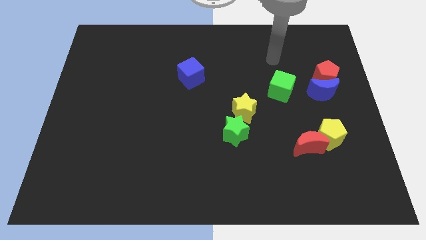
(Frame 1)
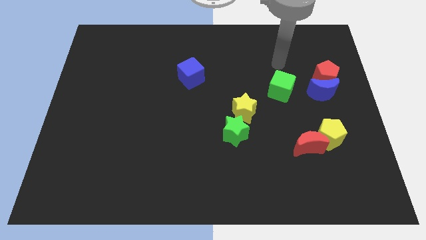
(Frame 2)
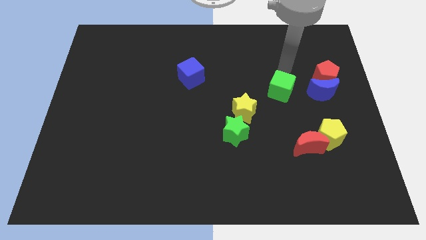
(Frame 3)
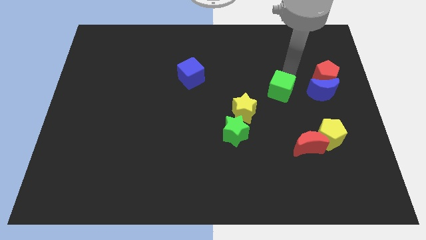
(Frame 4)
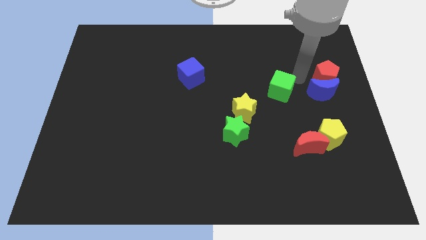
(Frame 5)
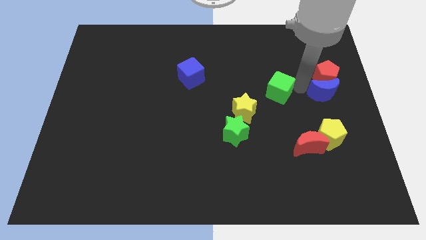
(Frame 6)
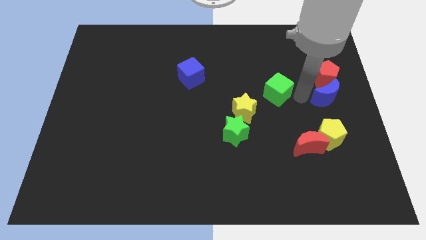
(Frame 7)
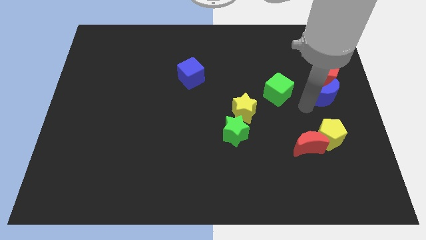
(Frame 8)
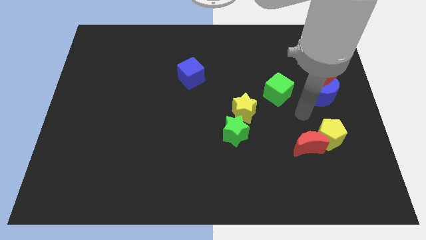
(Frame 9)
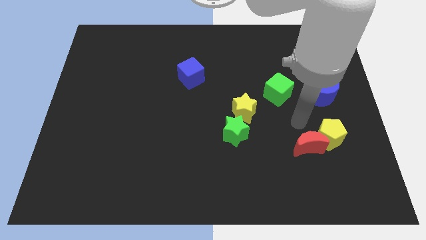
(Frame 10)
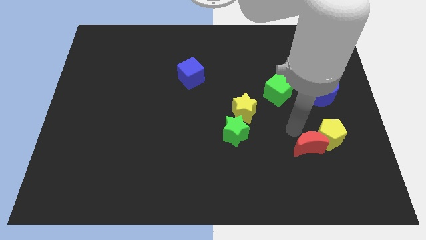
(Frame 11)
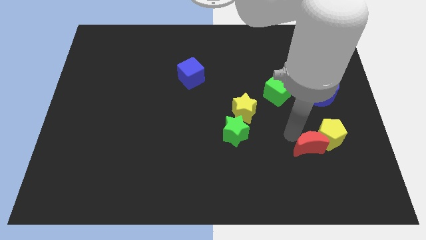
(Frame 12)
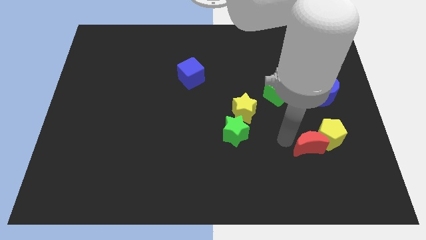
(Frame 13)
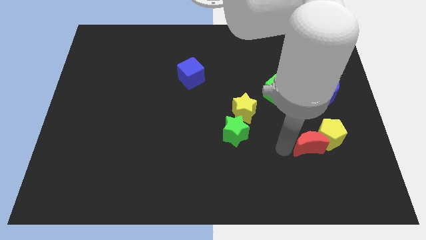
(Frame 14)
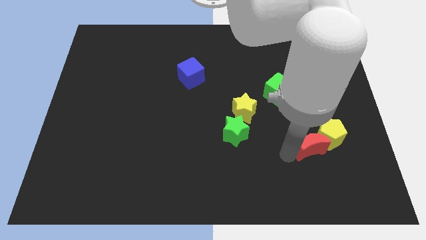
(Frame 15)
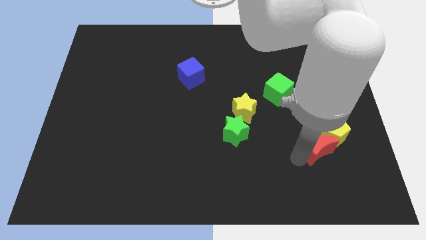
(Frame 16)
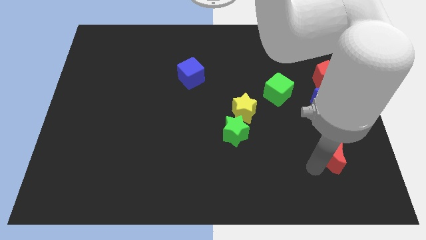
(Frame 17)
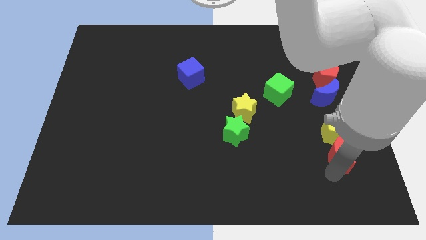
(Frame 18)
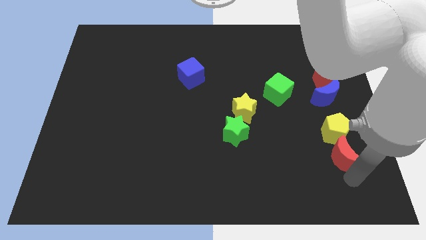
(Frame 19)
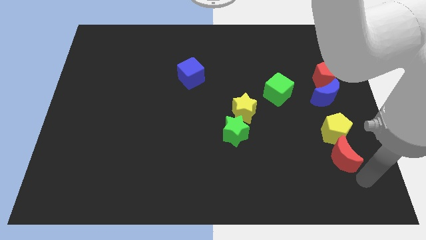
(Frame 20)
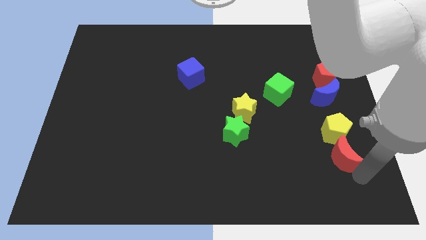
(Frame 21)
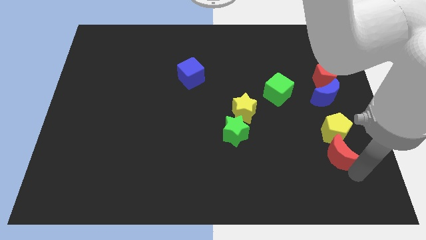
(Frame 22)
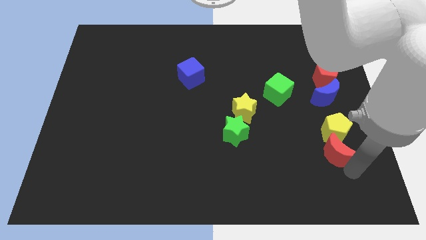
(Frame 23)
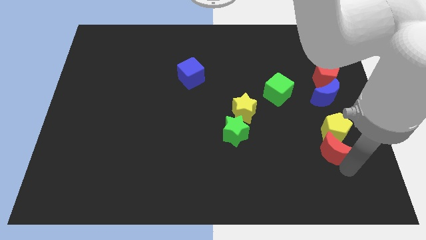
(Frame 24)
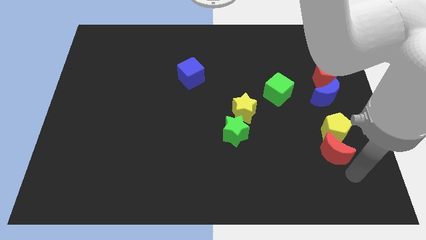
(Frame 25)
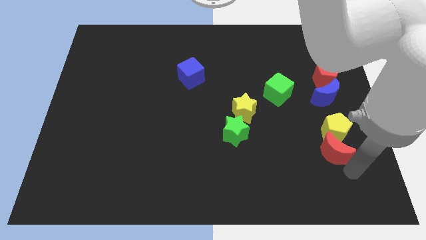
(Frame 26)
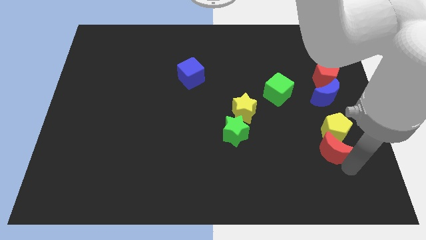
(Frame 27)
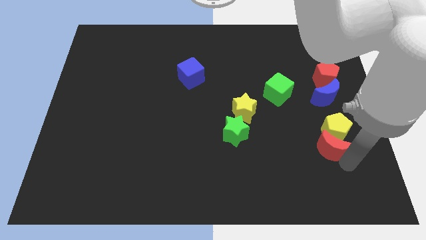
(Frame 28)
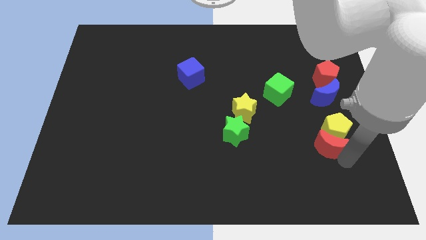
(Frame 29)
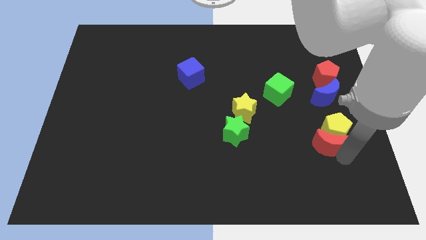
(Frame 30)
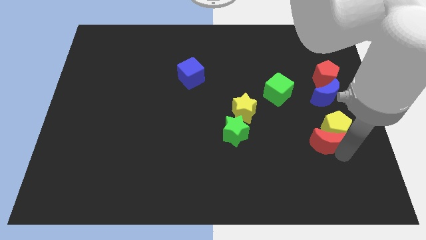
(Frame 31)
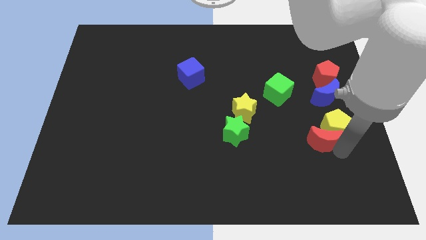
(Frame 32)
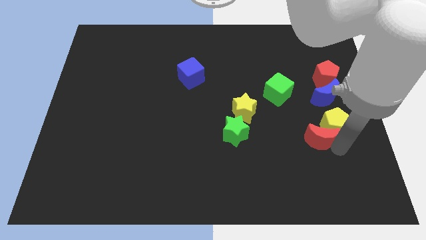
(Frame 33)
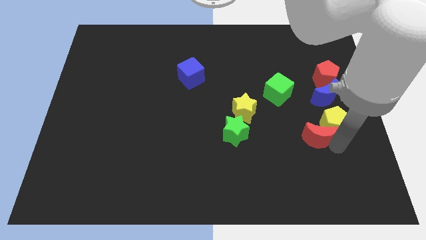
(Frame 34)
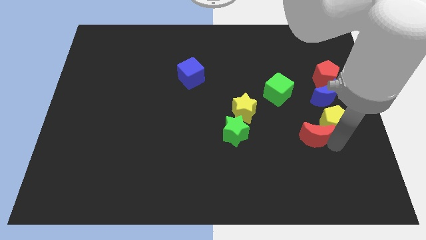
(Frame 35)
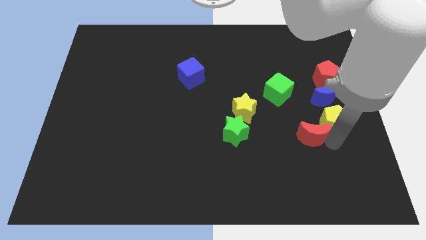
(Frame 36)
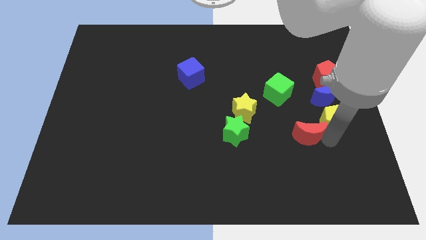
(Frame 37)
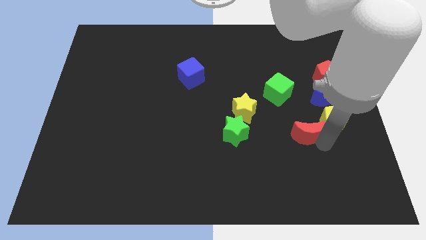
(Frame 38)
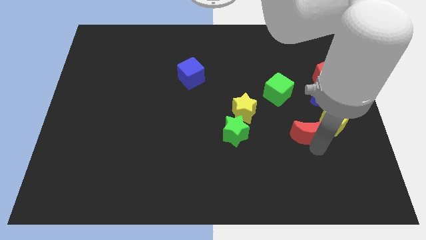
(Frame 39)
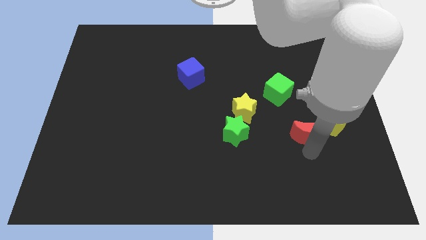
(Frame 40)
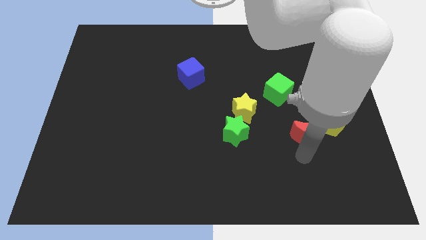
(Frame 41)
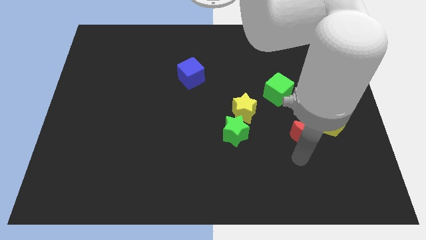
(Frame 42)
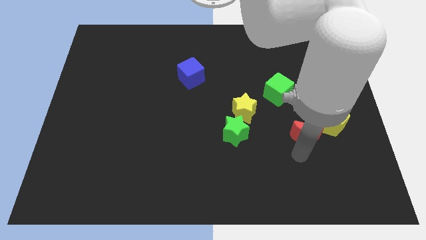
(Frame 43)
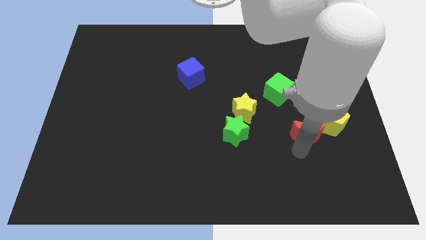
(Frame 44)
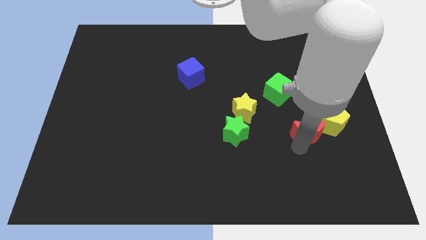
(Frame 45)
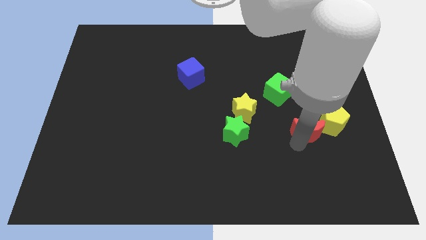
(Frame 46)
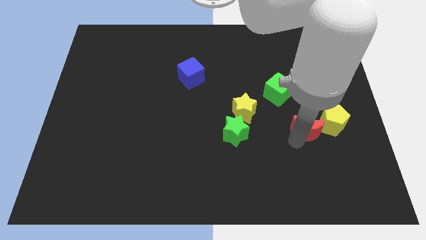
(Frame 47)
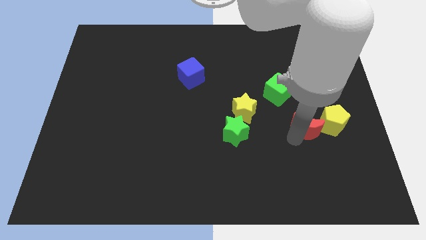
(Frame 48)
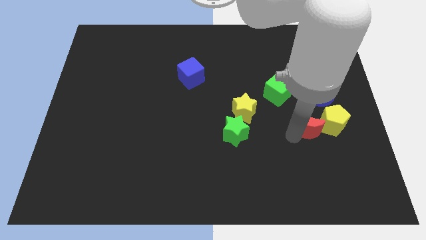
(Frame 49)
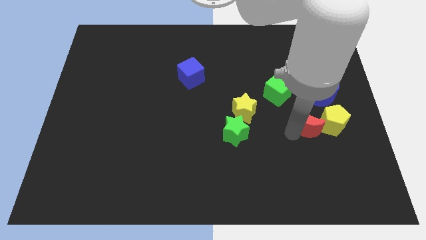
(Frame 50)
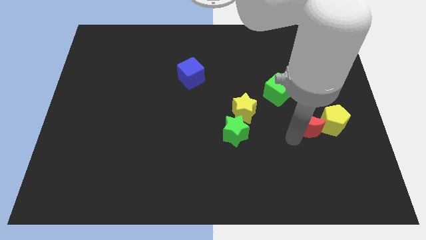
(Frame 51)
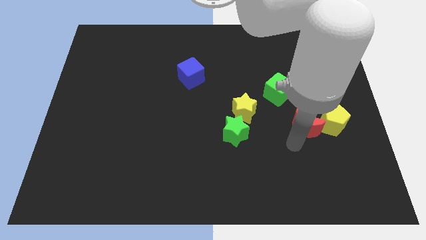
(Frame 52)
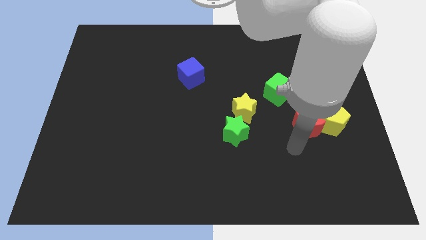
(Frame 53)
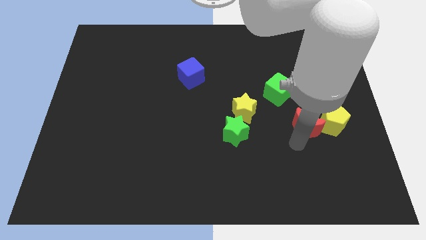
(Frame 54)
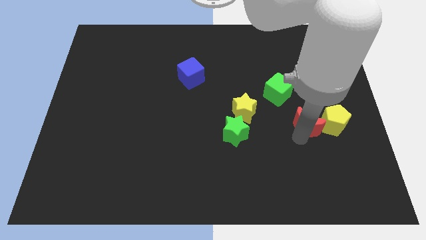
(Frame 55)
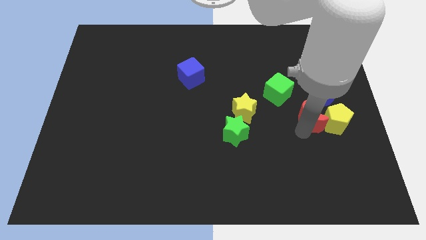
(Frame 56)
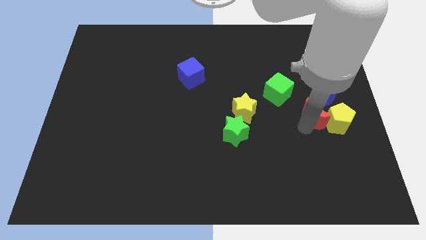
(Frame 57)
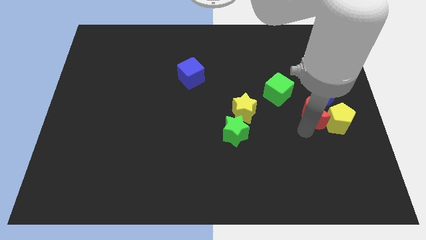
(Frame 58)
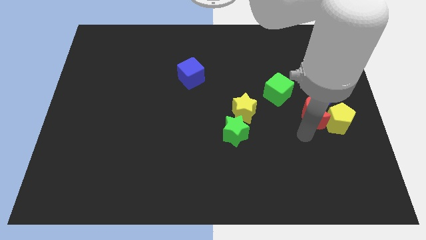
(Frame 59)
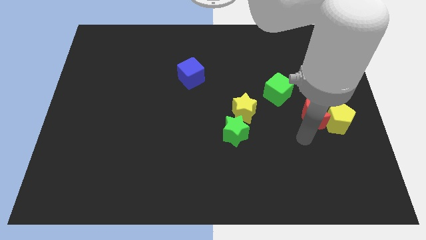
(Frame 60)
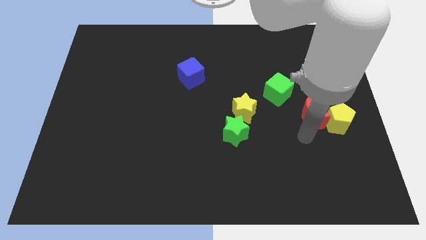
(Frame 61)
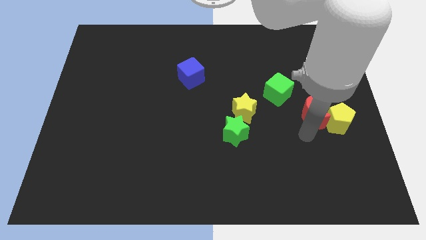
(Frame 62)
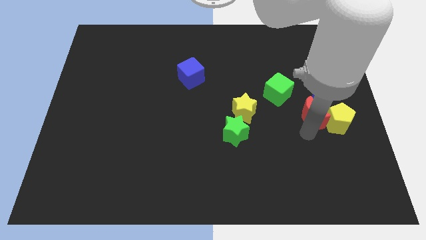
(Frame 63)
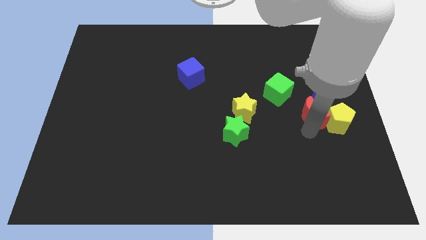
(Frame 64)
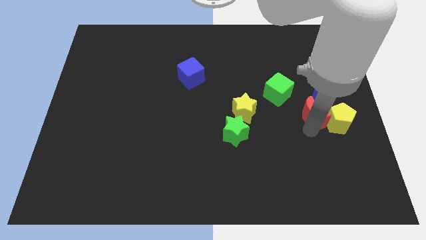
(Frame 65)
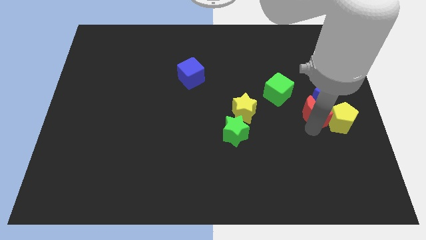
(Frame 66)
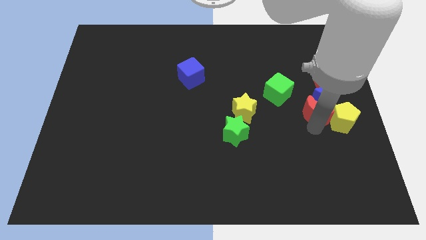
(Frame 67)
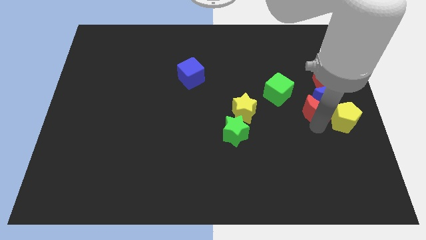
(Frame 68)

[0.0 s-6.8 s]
put the red moon to the blue moon

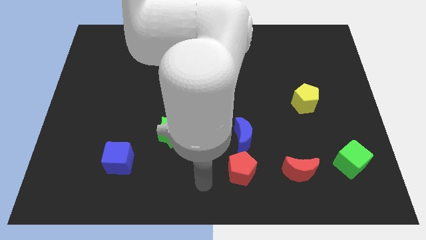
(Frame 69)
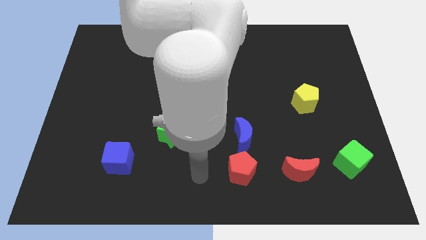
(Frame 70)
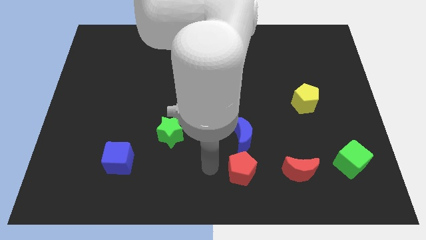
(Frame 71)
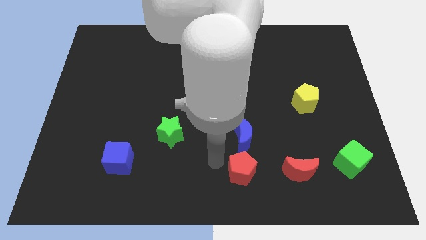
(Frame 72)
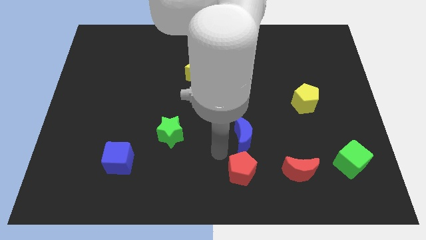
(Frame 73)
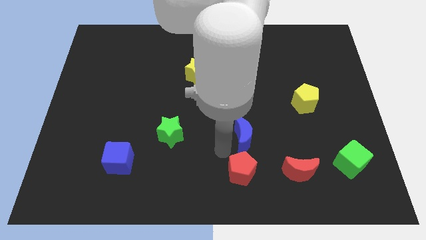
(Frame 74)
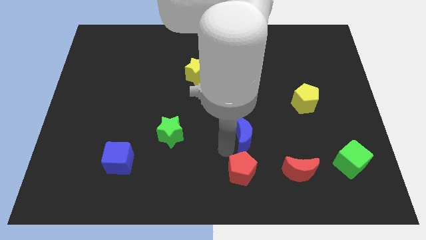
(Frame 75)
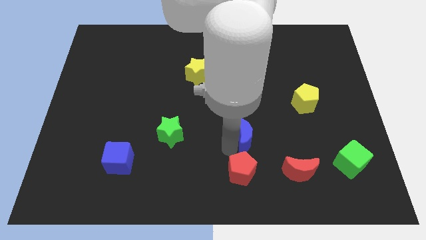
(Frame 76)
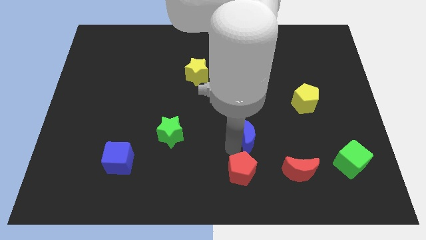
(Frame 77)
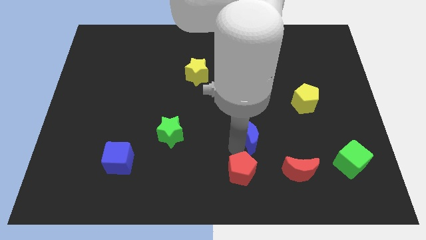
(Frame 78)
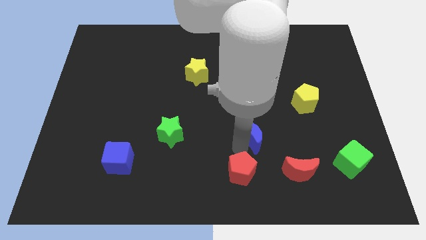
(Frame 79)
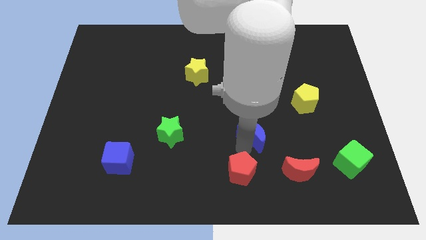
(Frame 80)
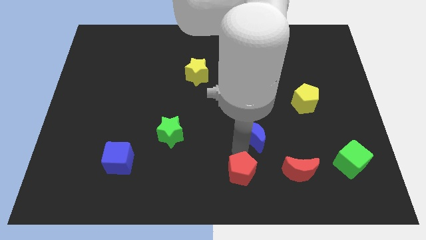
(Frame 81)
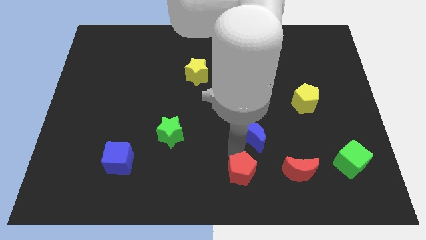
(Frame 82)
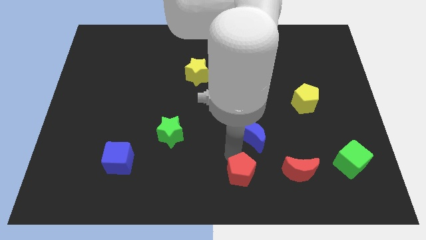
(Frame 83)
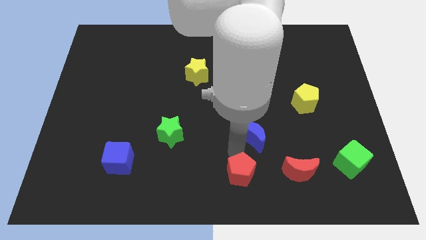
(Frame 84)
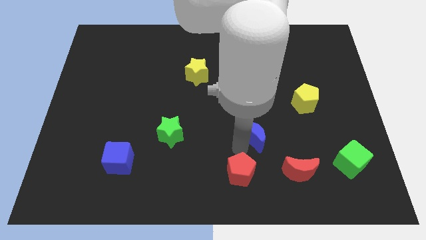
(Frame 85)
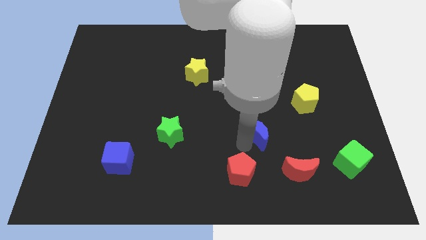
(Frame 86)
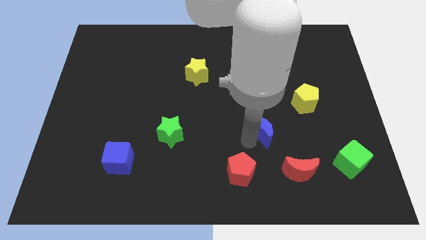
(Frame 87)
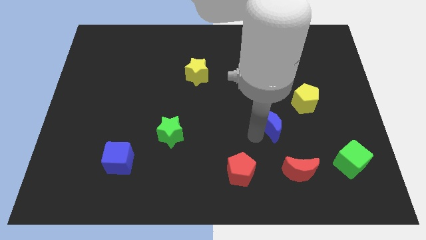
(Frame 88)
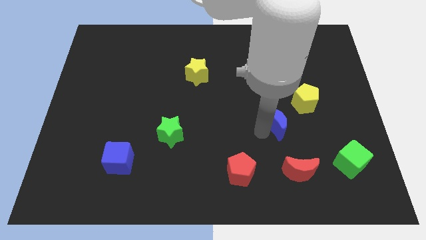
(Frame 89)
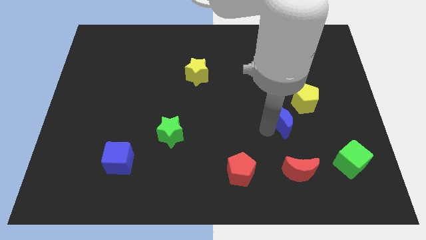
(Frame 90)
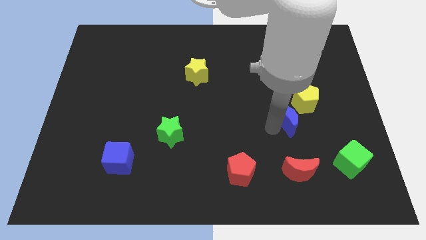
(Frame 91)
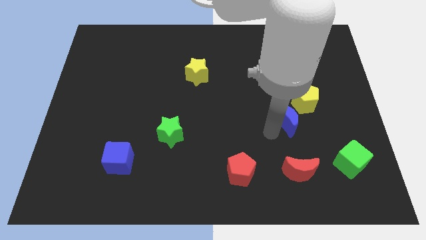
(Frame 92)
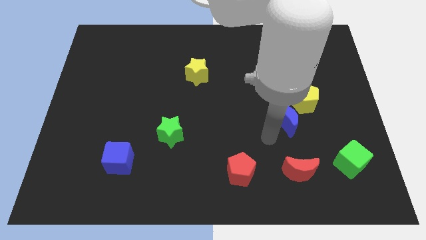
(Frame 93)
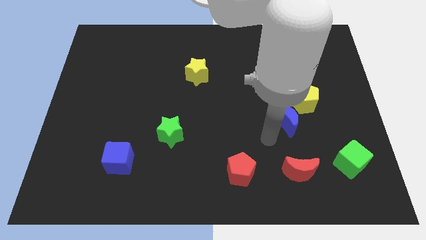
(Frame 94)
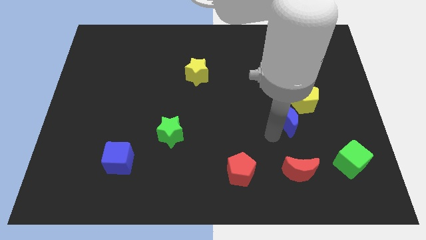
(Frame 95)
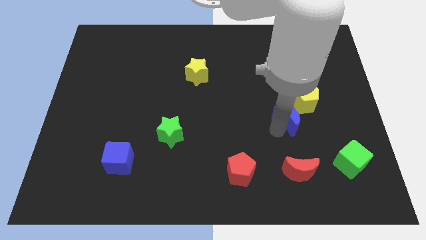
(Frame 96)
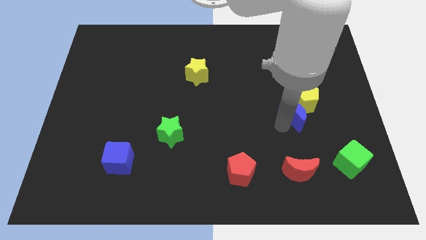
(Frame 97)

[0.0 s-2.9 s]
push the blue moon close to the yellow pentagon
